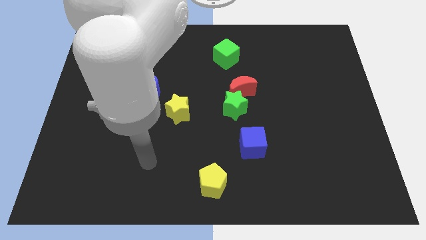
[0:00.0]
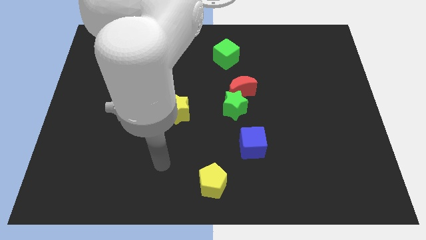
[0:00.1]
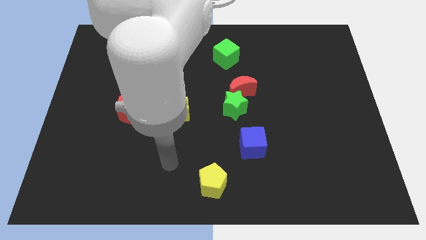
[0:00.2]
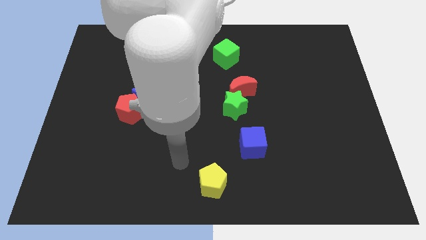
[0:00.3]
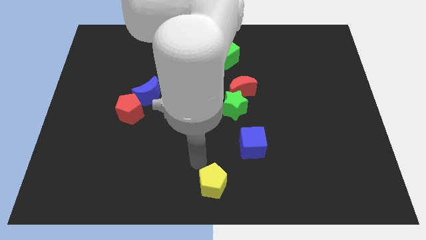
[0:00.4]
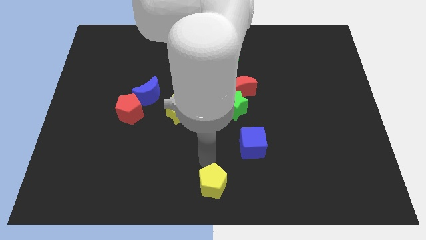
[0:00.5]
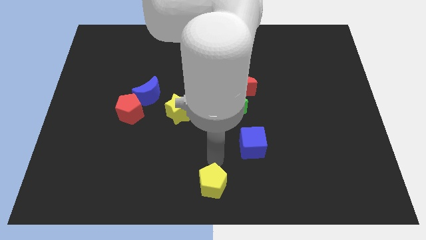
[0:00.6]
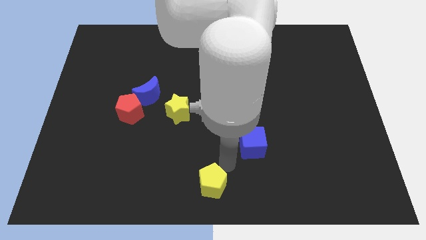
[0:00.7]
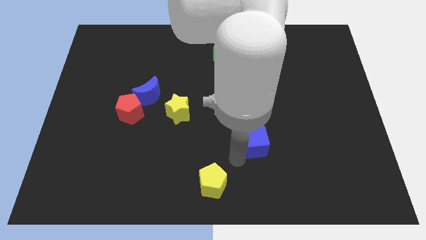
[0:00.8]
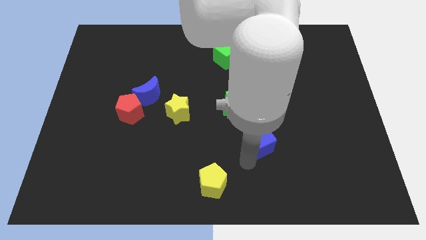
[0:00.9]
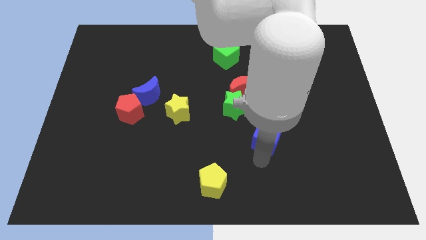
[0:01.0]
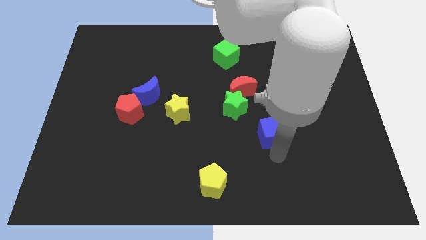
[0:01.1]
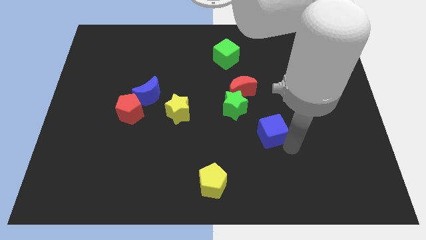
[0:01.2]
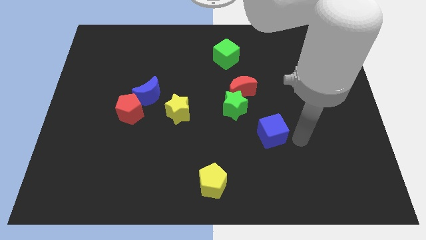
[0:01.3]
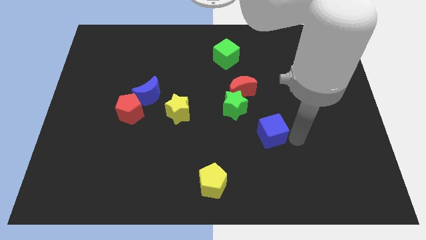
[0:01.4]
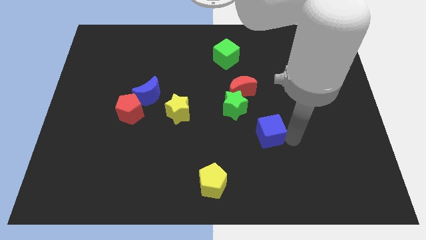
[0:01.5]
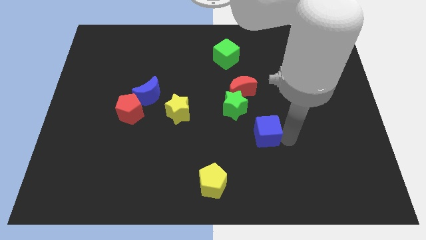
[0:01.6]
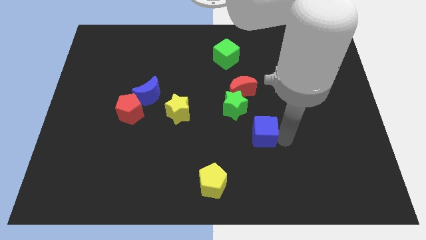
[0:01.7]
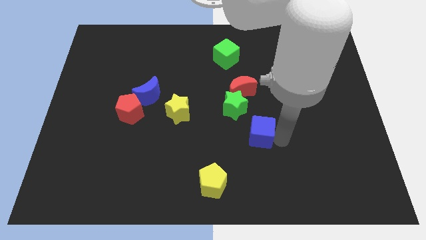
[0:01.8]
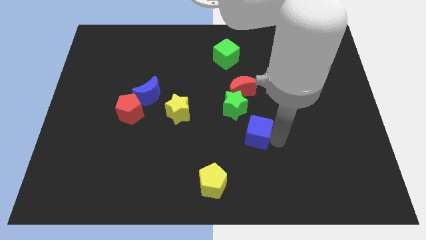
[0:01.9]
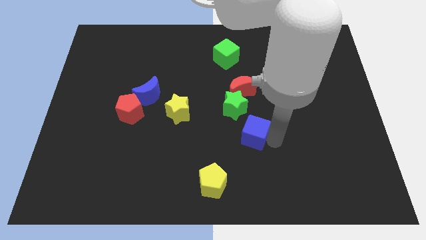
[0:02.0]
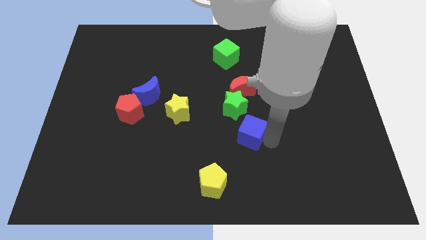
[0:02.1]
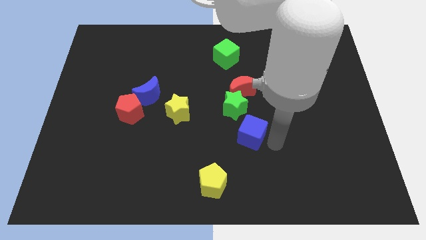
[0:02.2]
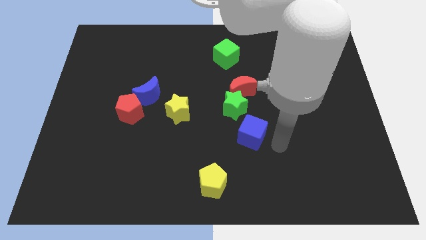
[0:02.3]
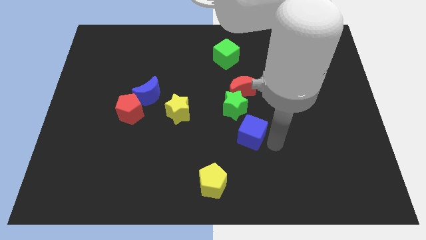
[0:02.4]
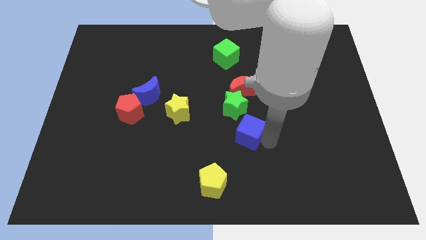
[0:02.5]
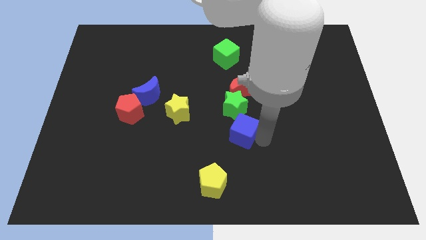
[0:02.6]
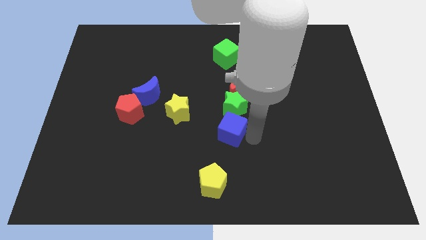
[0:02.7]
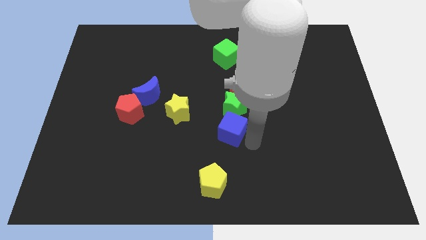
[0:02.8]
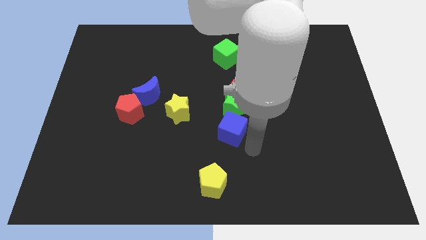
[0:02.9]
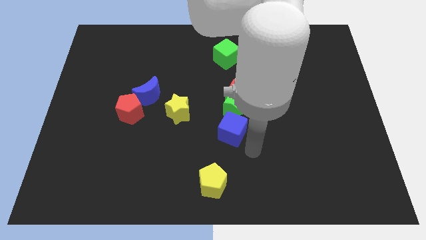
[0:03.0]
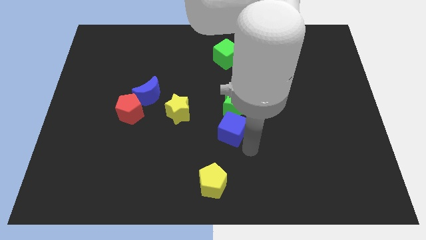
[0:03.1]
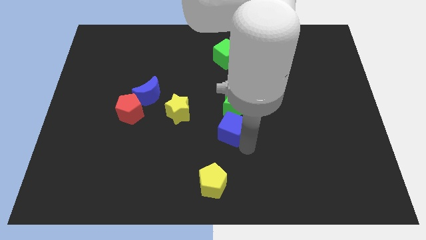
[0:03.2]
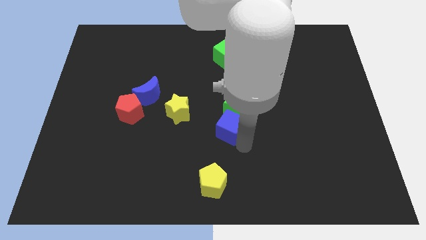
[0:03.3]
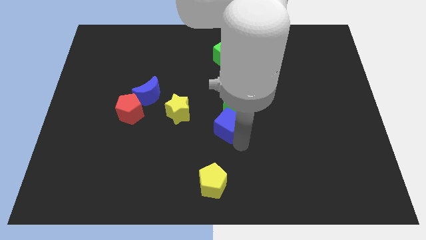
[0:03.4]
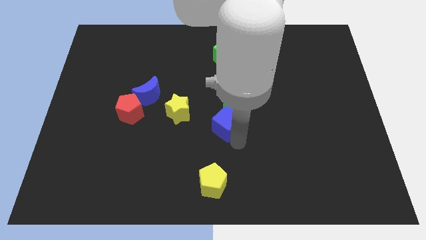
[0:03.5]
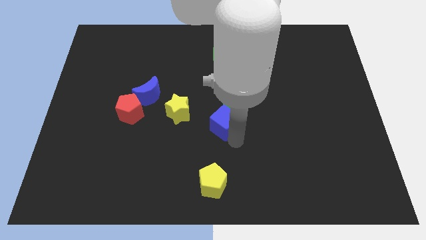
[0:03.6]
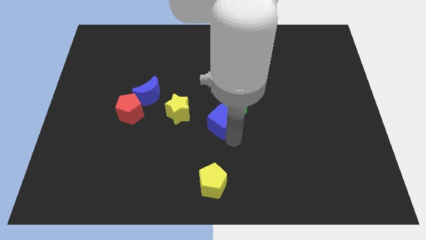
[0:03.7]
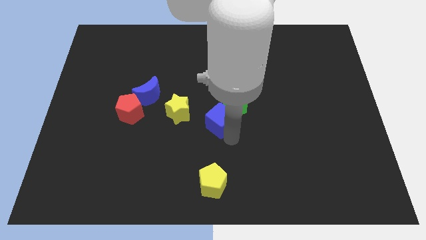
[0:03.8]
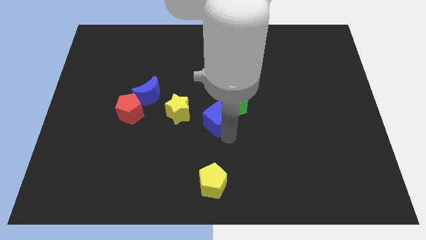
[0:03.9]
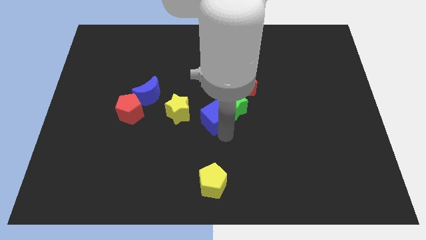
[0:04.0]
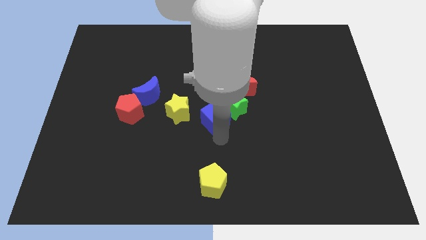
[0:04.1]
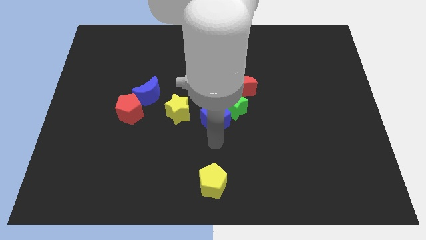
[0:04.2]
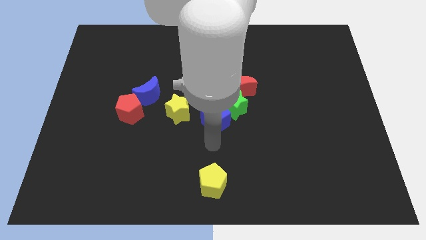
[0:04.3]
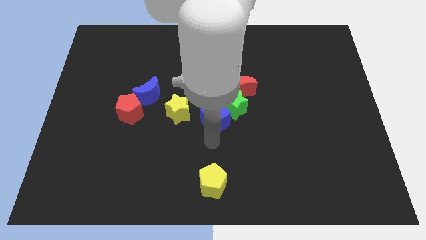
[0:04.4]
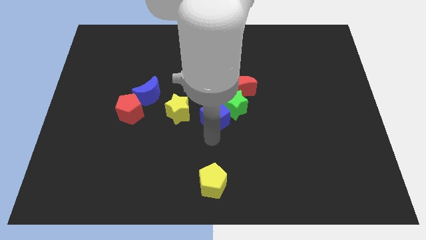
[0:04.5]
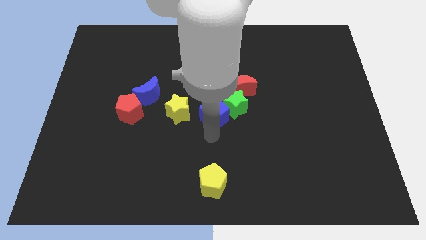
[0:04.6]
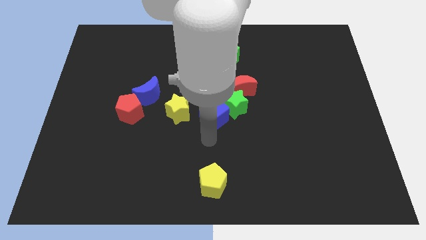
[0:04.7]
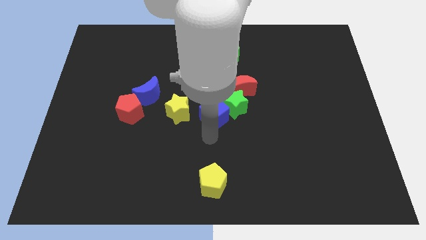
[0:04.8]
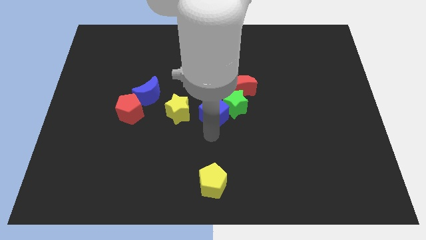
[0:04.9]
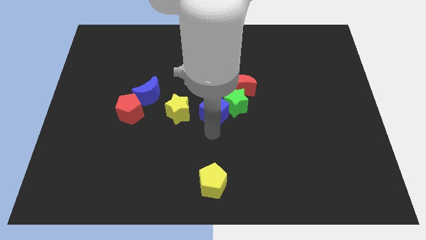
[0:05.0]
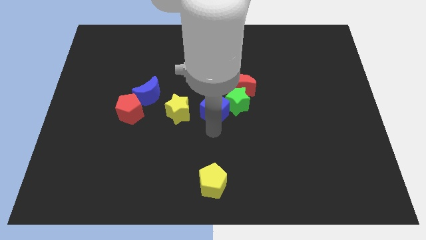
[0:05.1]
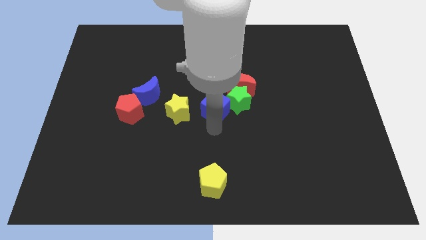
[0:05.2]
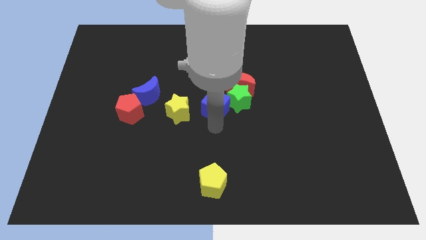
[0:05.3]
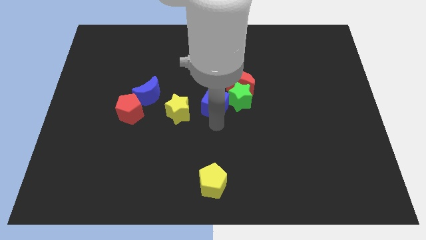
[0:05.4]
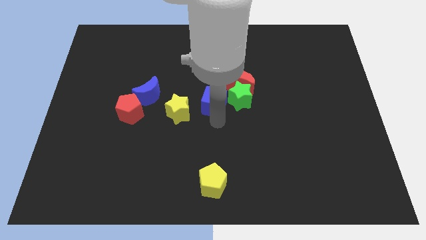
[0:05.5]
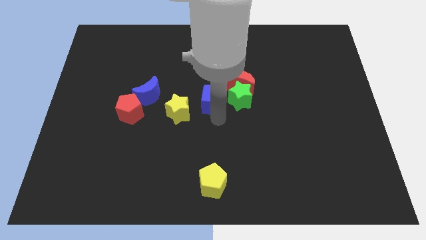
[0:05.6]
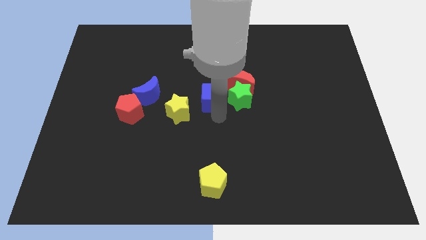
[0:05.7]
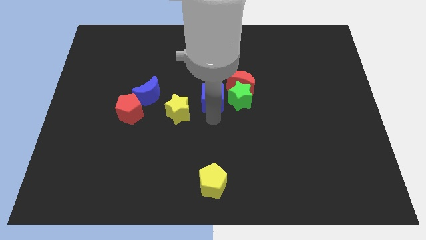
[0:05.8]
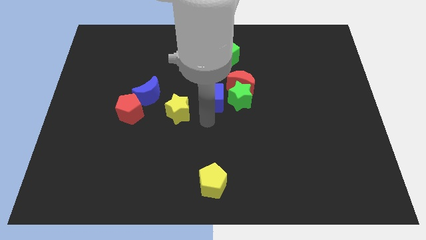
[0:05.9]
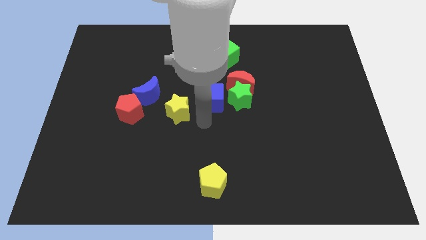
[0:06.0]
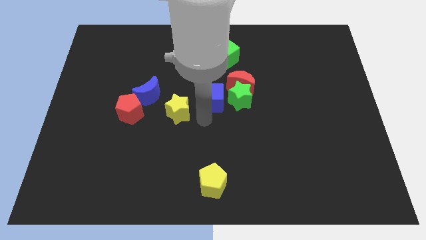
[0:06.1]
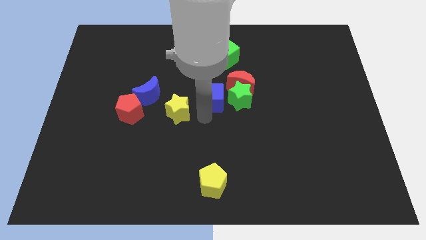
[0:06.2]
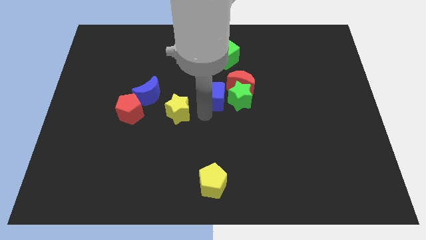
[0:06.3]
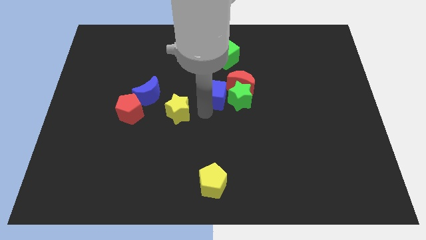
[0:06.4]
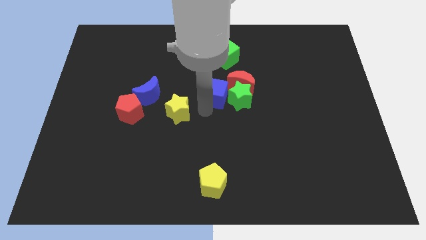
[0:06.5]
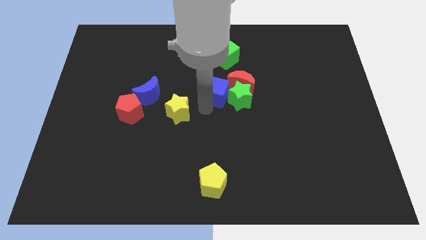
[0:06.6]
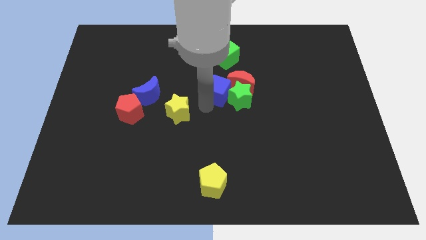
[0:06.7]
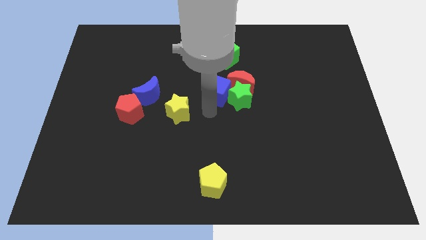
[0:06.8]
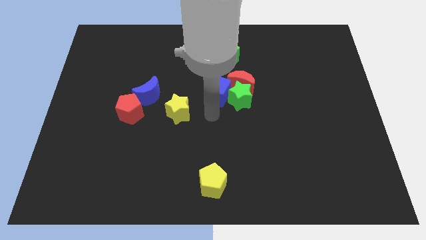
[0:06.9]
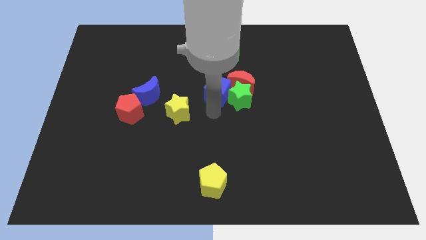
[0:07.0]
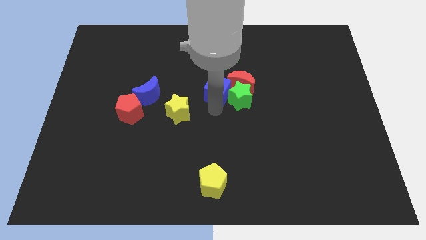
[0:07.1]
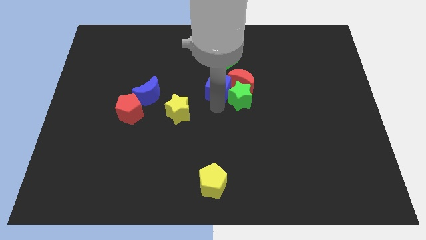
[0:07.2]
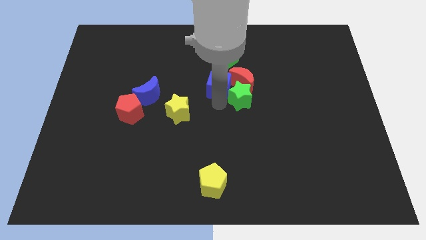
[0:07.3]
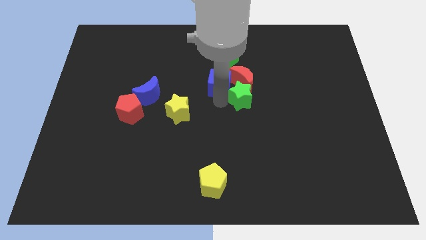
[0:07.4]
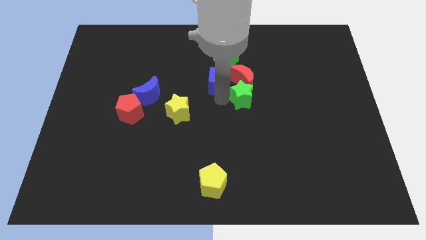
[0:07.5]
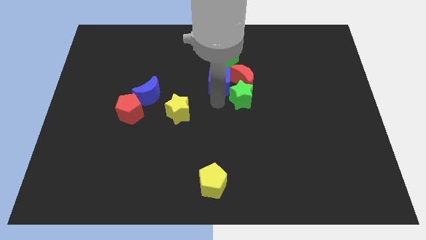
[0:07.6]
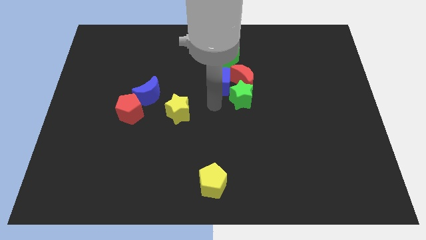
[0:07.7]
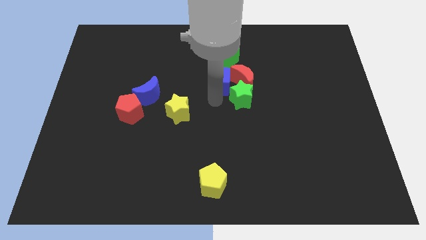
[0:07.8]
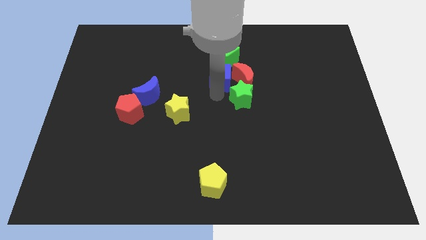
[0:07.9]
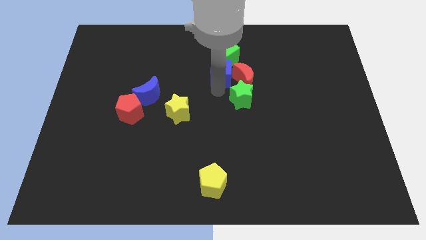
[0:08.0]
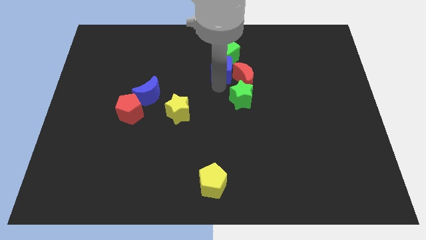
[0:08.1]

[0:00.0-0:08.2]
put the blue cube next to the green cube
